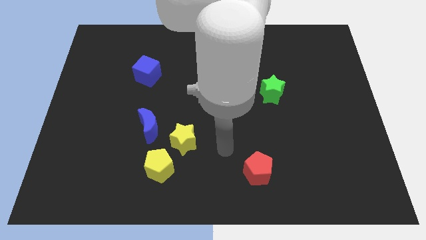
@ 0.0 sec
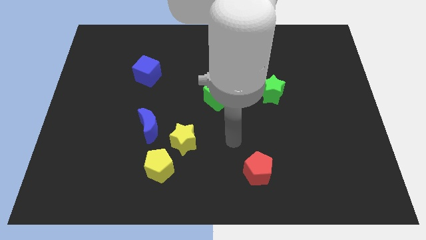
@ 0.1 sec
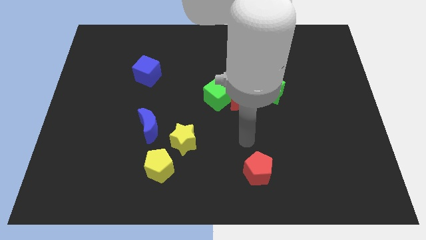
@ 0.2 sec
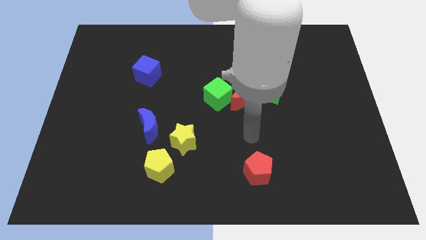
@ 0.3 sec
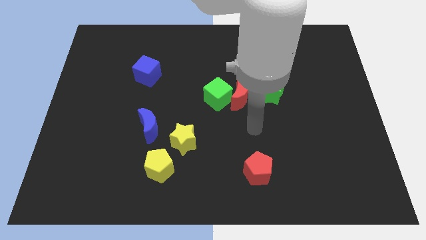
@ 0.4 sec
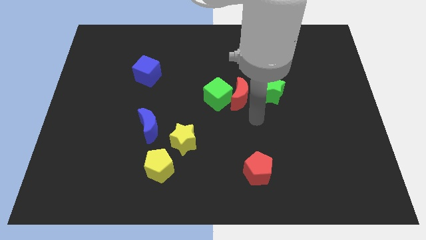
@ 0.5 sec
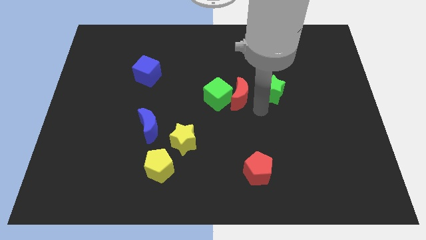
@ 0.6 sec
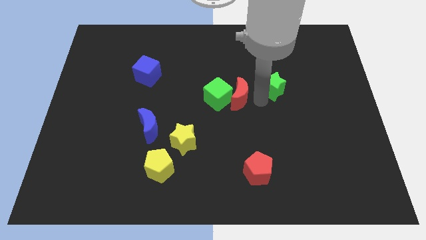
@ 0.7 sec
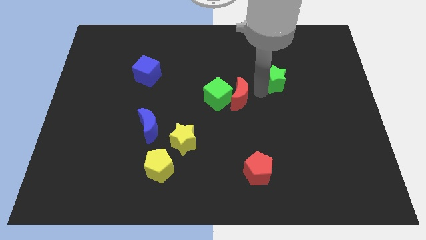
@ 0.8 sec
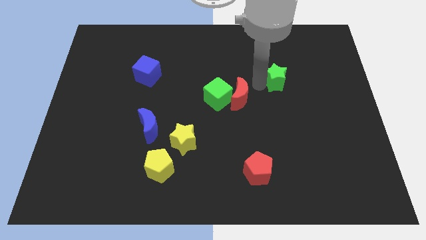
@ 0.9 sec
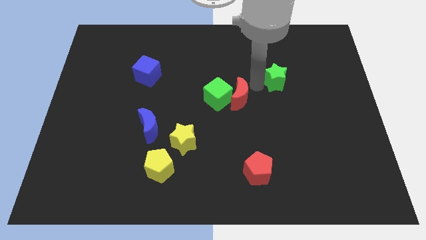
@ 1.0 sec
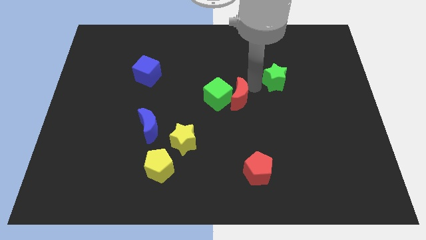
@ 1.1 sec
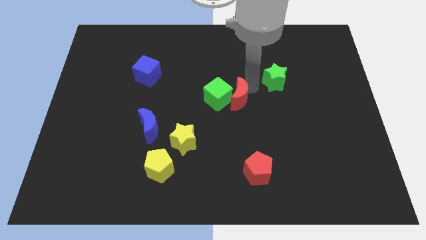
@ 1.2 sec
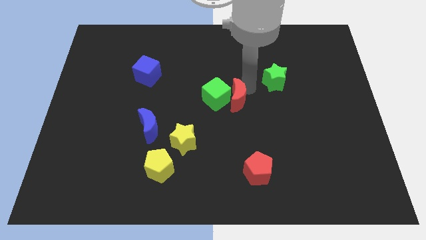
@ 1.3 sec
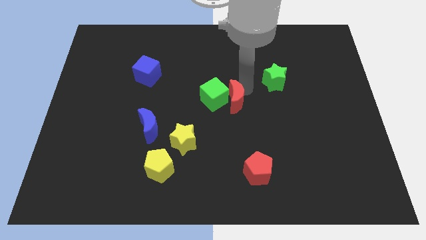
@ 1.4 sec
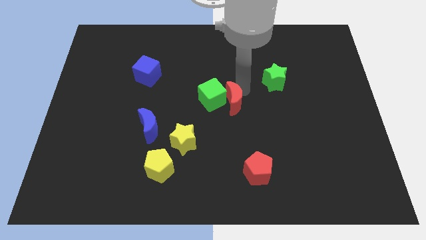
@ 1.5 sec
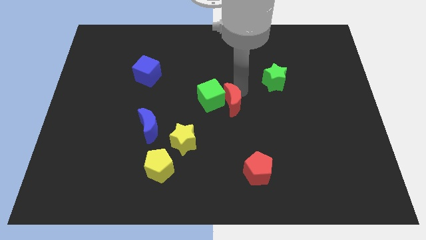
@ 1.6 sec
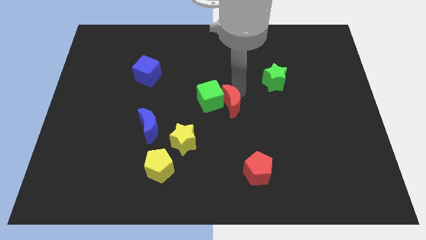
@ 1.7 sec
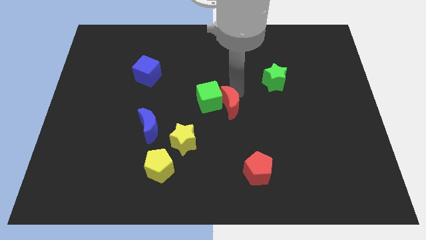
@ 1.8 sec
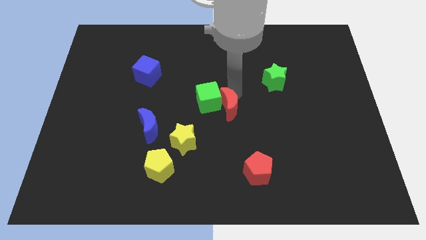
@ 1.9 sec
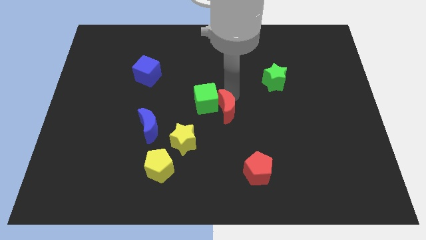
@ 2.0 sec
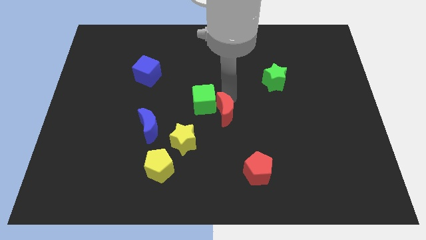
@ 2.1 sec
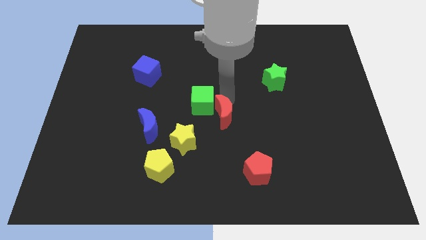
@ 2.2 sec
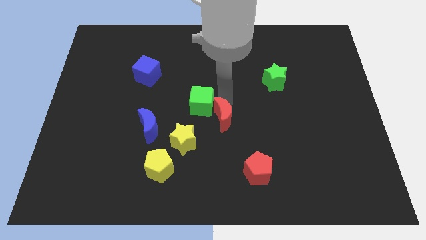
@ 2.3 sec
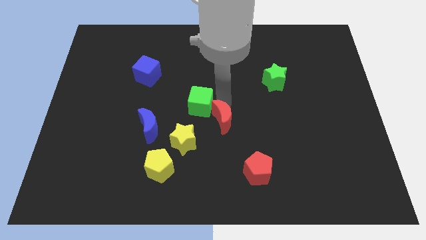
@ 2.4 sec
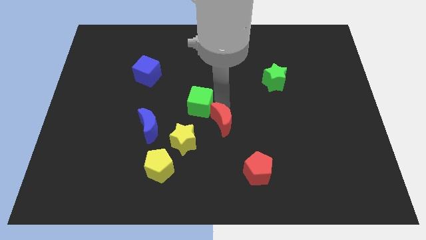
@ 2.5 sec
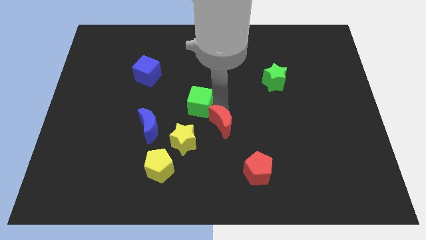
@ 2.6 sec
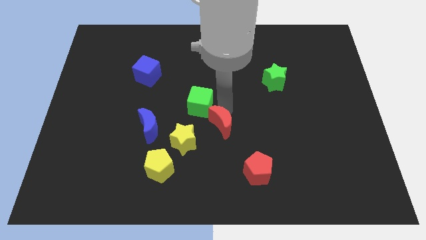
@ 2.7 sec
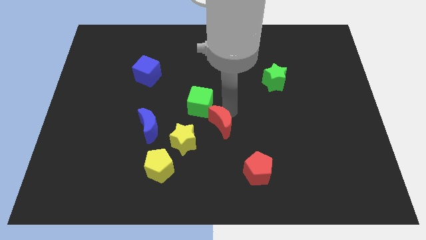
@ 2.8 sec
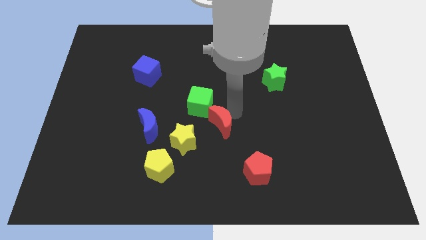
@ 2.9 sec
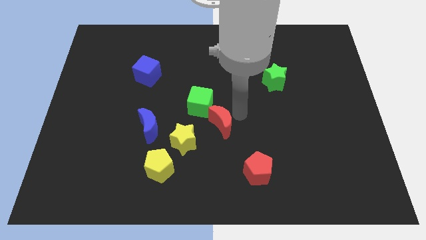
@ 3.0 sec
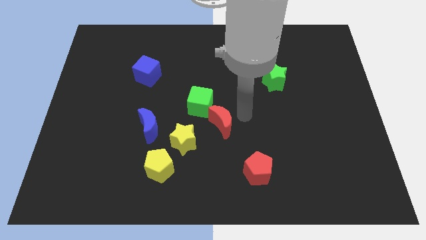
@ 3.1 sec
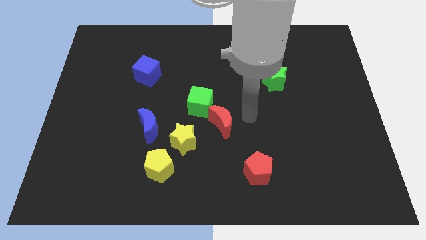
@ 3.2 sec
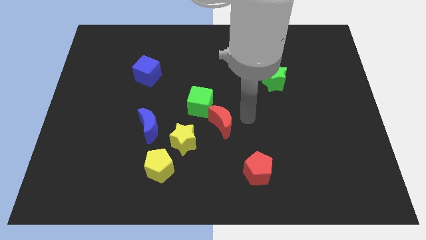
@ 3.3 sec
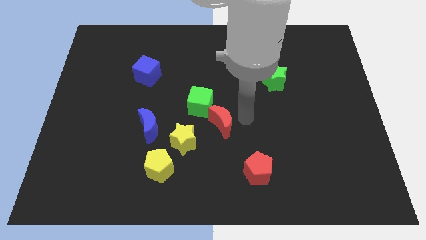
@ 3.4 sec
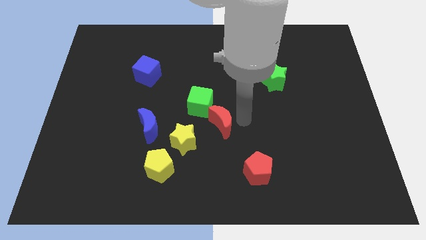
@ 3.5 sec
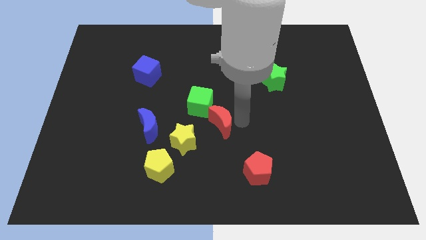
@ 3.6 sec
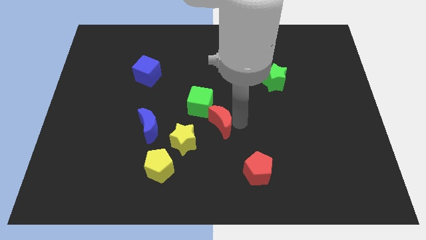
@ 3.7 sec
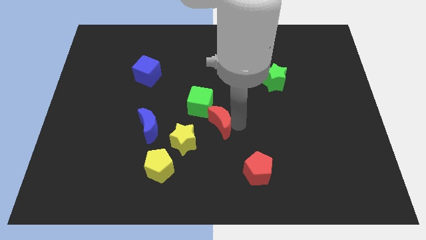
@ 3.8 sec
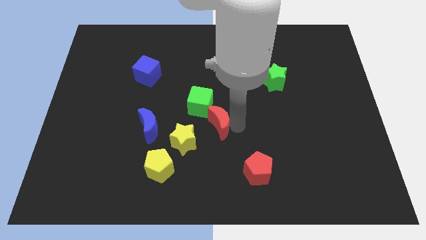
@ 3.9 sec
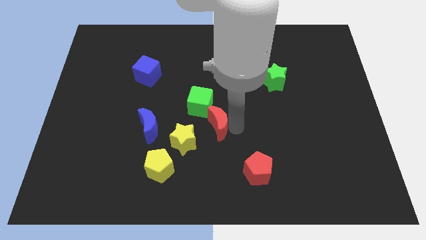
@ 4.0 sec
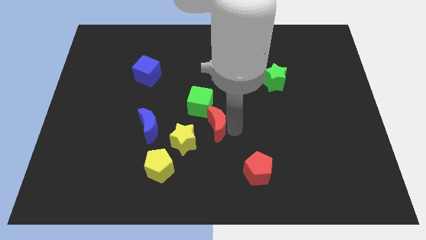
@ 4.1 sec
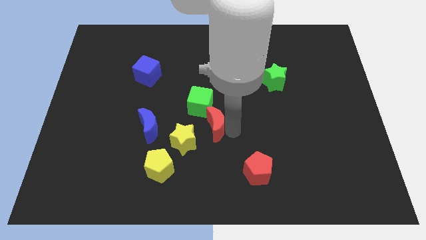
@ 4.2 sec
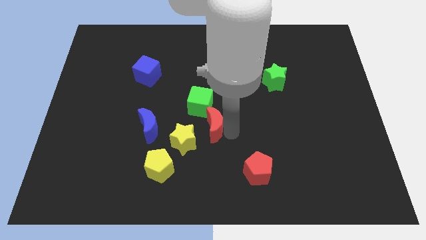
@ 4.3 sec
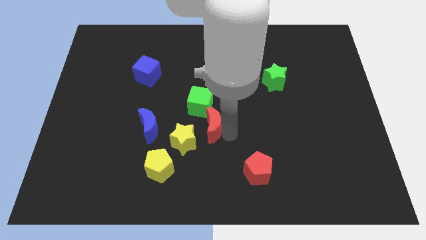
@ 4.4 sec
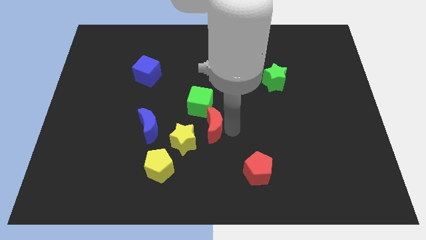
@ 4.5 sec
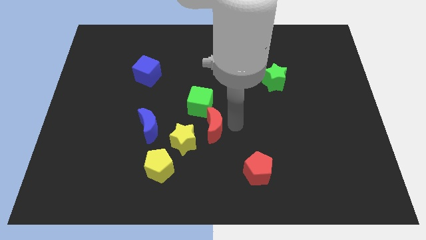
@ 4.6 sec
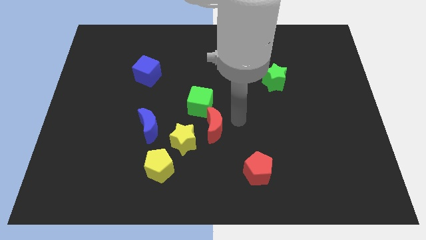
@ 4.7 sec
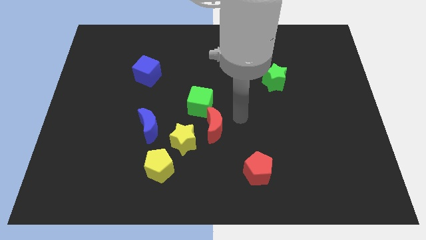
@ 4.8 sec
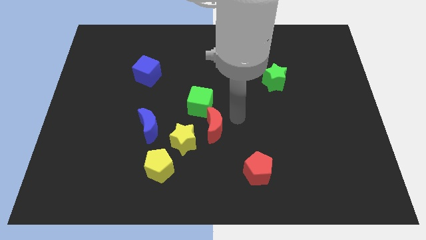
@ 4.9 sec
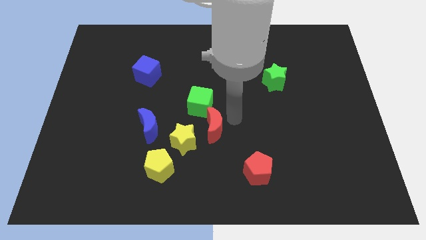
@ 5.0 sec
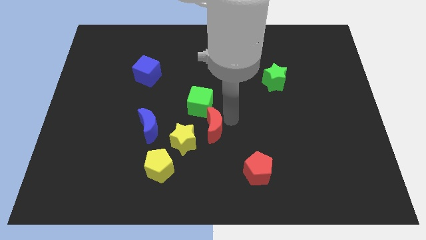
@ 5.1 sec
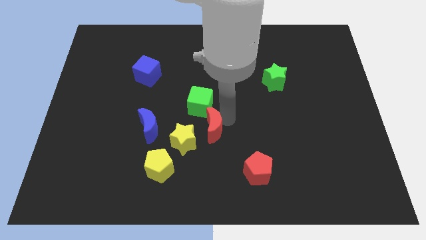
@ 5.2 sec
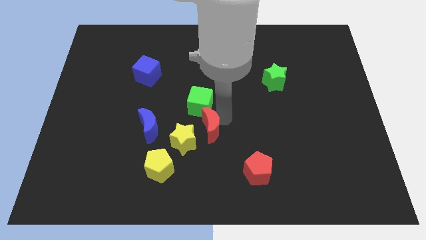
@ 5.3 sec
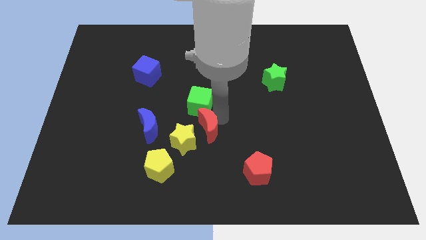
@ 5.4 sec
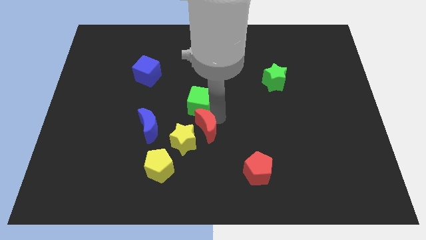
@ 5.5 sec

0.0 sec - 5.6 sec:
put the red moon towards the yellow star
